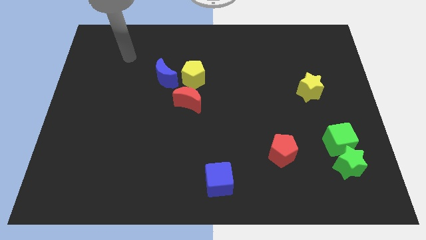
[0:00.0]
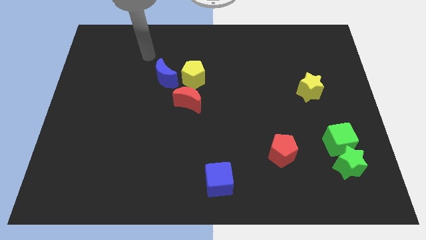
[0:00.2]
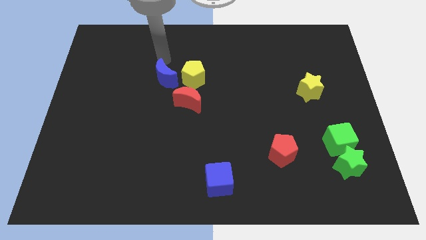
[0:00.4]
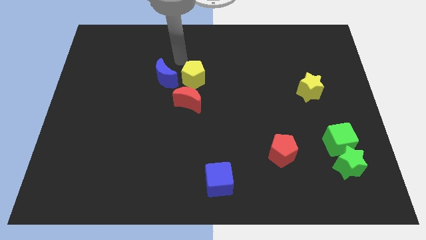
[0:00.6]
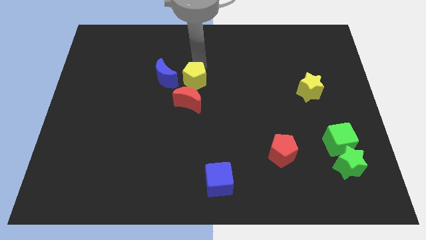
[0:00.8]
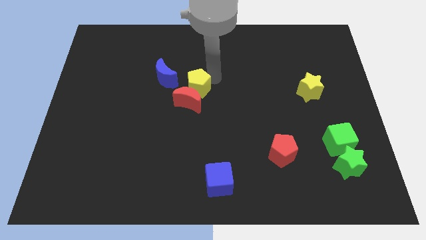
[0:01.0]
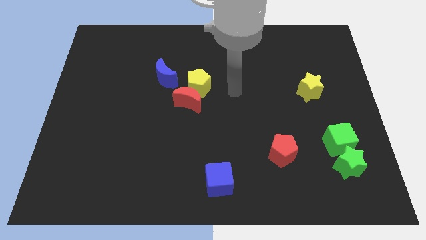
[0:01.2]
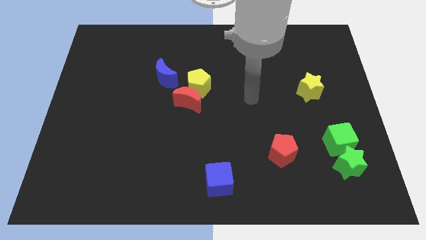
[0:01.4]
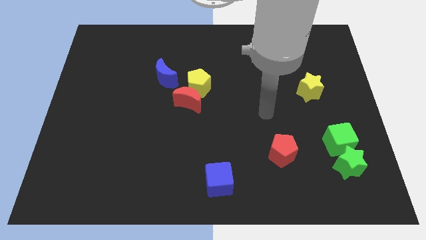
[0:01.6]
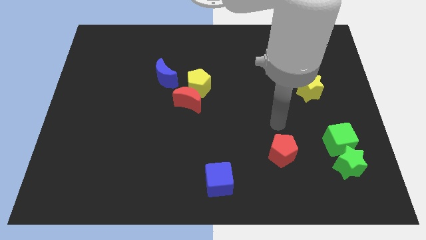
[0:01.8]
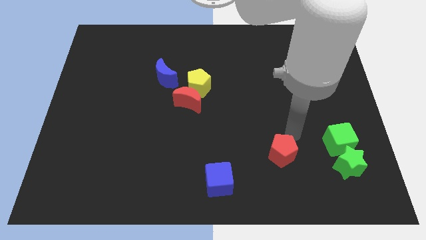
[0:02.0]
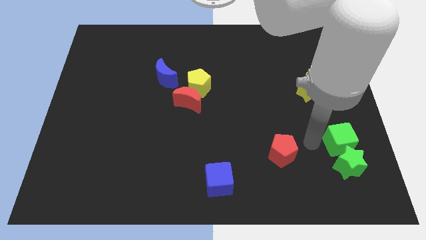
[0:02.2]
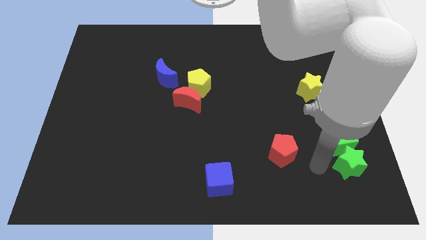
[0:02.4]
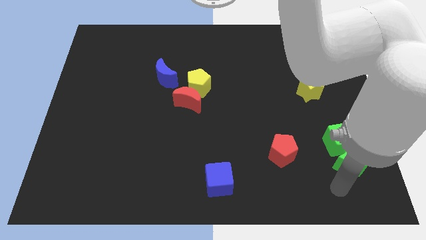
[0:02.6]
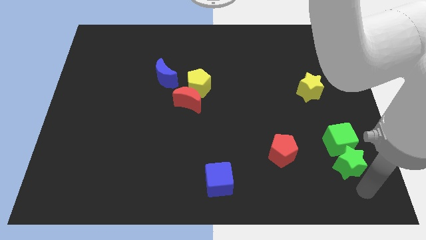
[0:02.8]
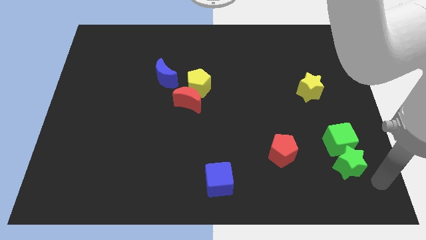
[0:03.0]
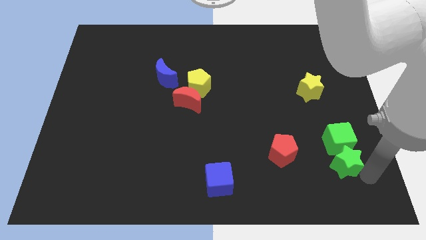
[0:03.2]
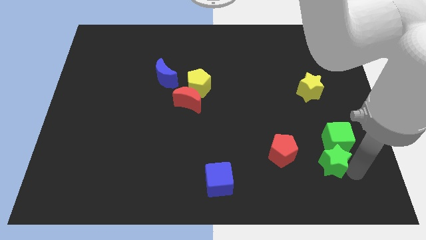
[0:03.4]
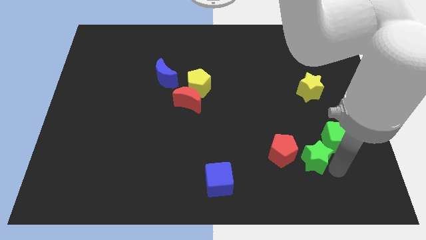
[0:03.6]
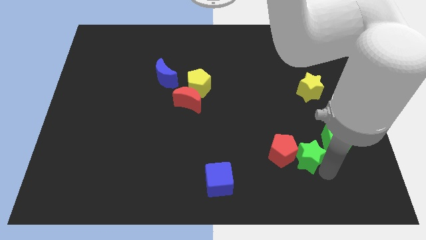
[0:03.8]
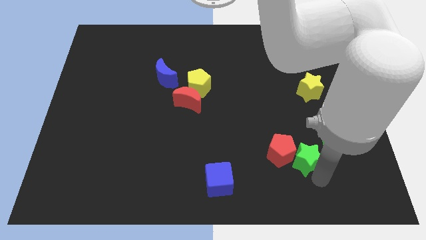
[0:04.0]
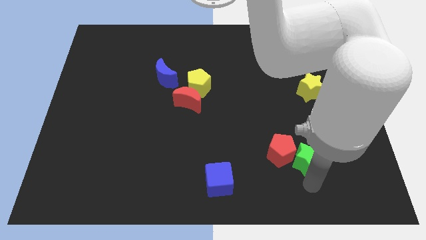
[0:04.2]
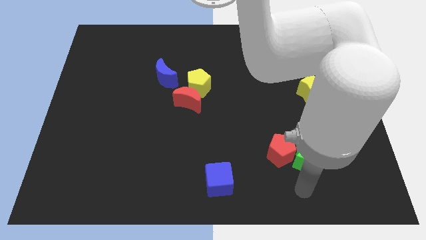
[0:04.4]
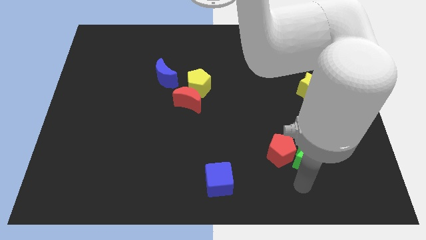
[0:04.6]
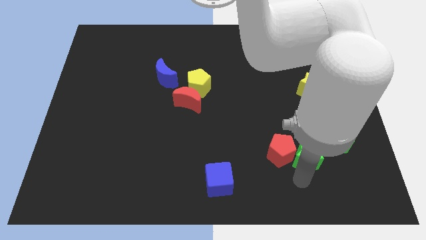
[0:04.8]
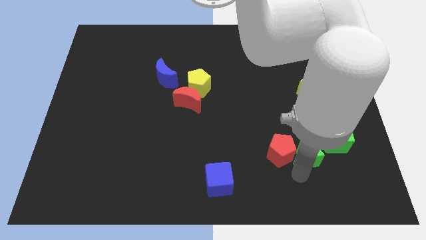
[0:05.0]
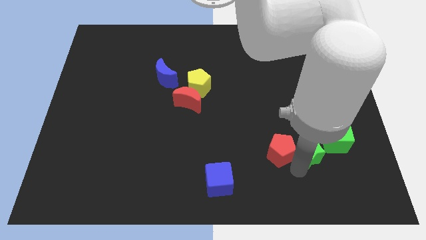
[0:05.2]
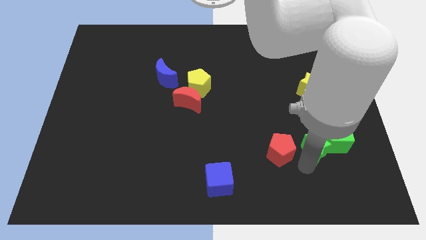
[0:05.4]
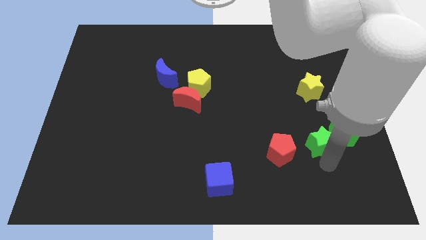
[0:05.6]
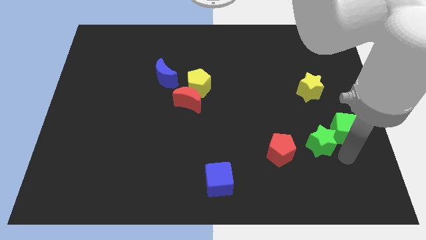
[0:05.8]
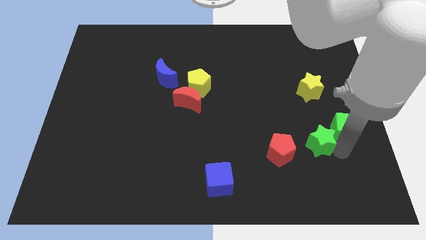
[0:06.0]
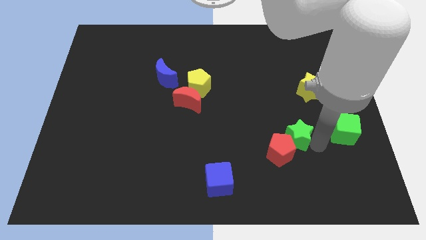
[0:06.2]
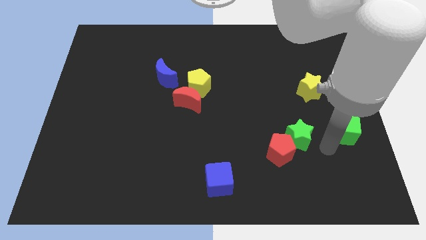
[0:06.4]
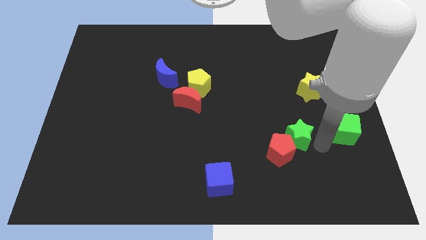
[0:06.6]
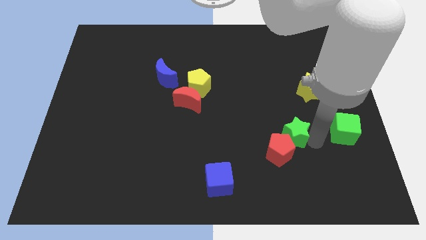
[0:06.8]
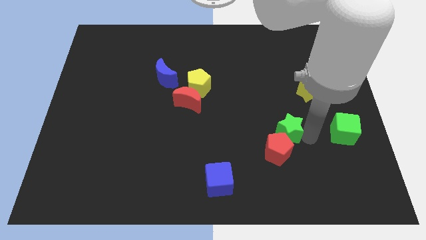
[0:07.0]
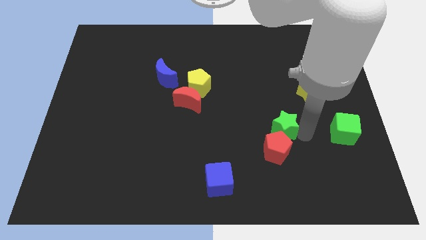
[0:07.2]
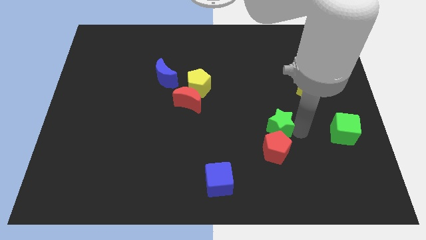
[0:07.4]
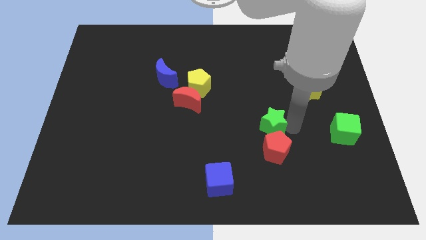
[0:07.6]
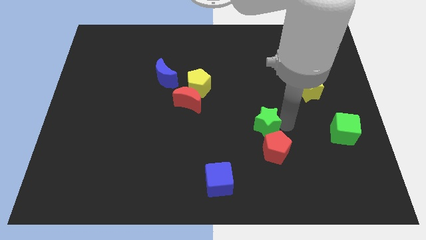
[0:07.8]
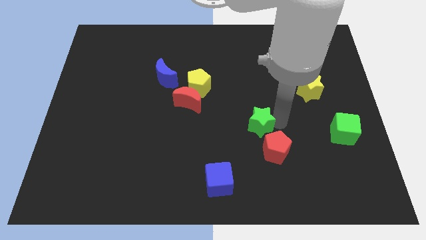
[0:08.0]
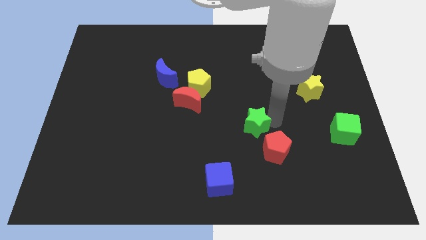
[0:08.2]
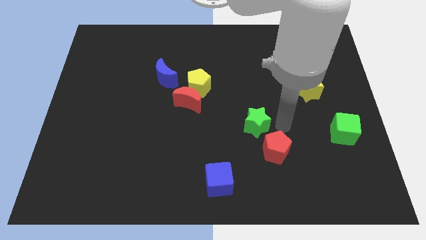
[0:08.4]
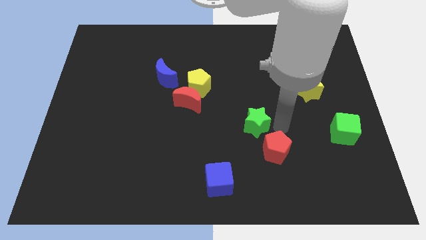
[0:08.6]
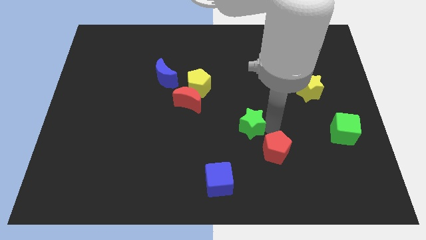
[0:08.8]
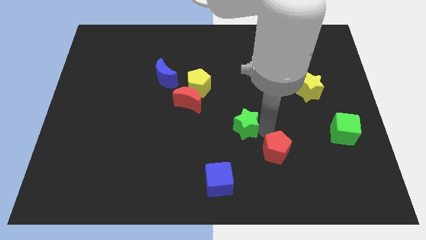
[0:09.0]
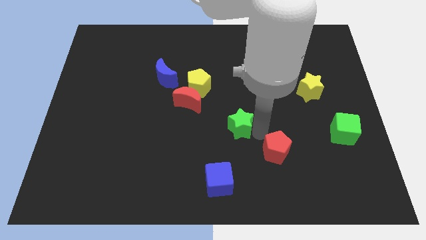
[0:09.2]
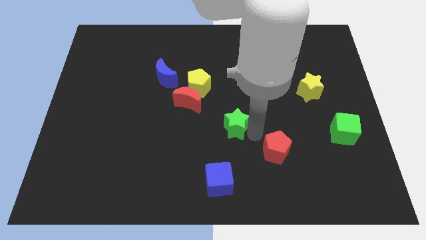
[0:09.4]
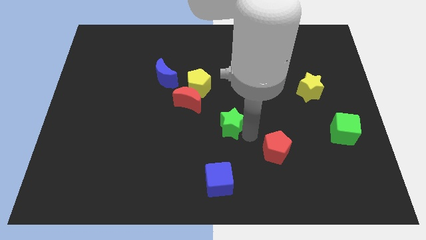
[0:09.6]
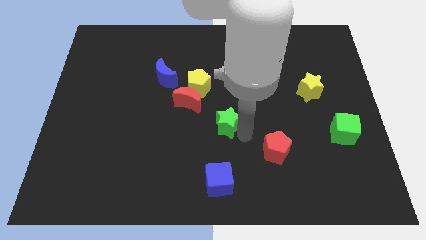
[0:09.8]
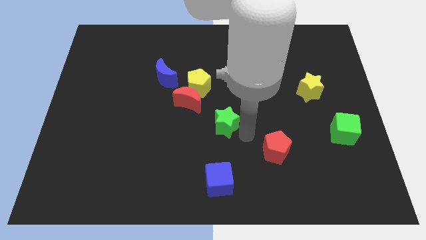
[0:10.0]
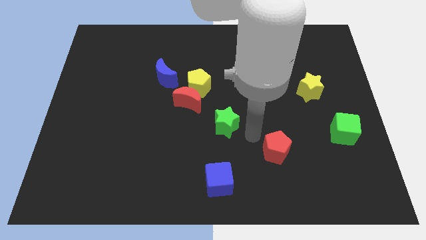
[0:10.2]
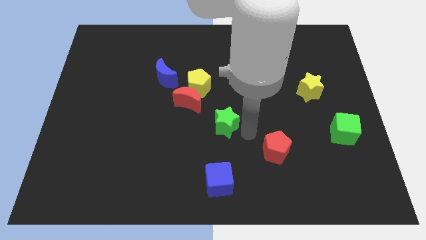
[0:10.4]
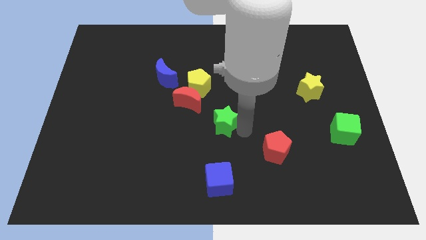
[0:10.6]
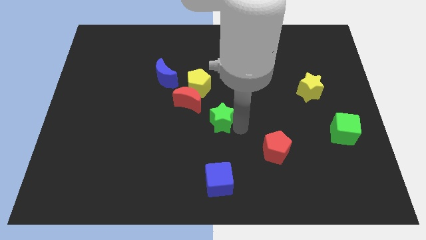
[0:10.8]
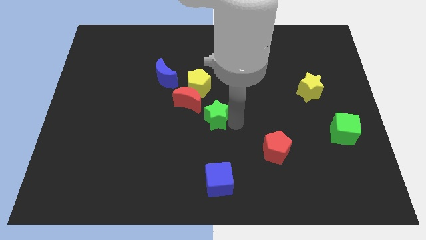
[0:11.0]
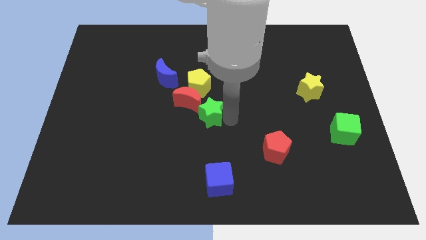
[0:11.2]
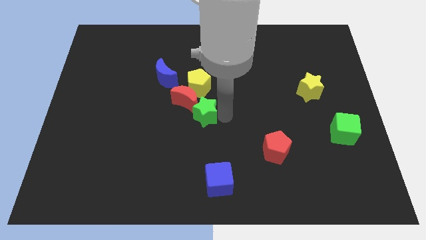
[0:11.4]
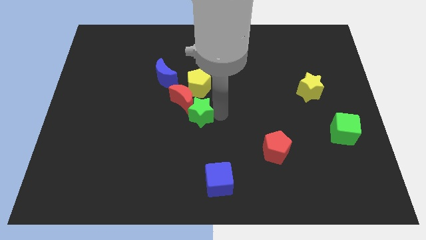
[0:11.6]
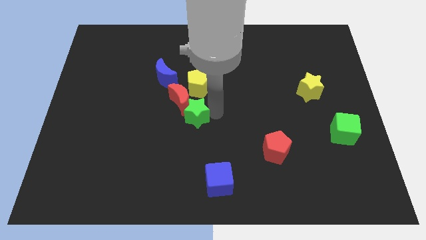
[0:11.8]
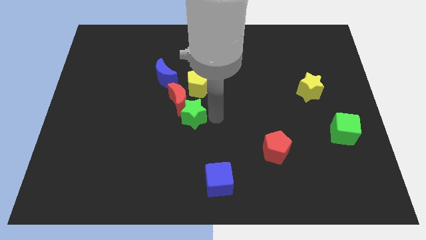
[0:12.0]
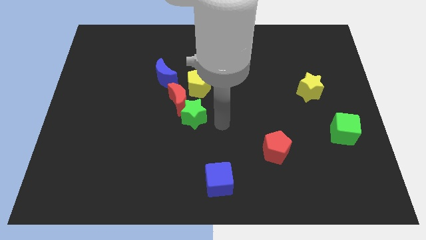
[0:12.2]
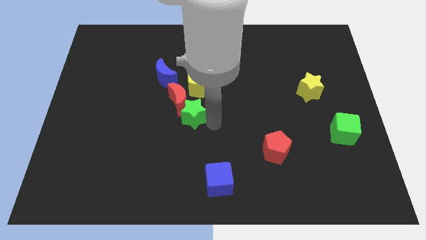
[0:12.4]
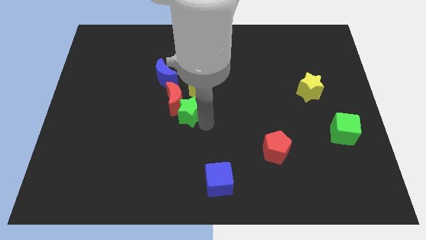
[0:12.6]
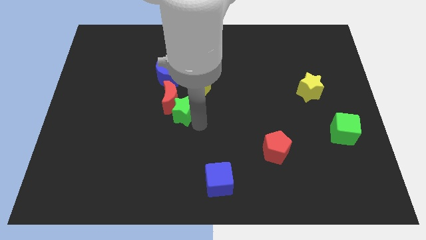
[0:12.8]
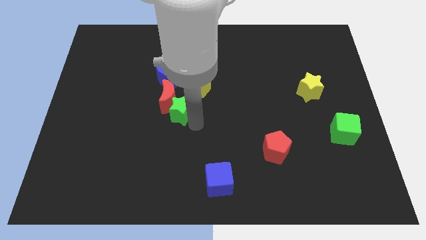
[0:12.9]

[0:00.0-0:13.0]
push the green star to the bottom side of the blue moon
